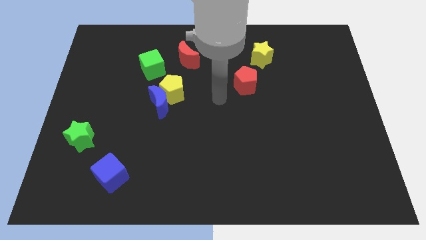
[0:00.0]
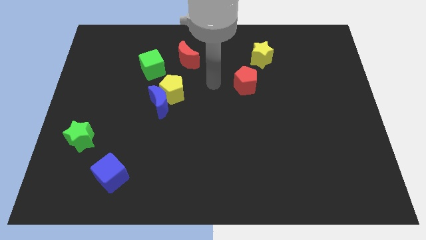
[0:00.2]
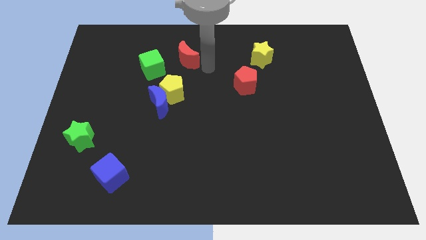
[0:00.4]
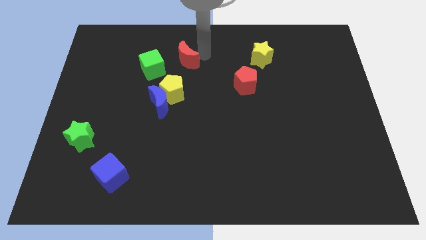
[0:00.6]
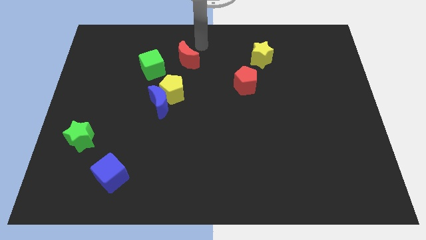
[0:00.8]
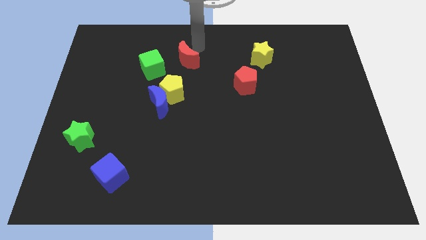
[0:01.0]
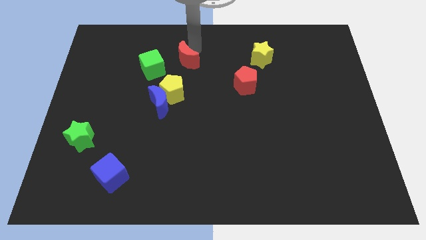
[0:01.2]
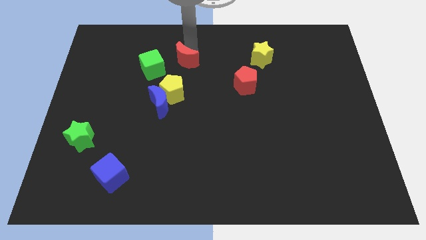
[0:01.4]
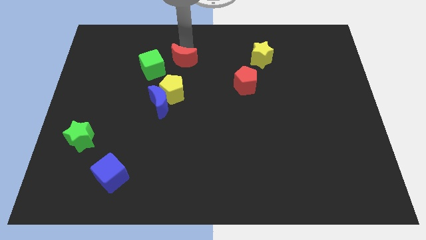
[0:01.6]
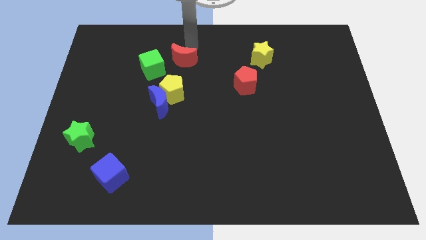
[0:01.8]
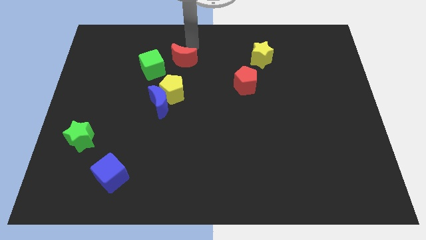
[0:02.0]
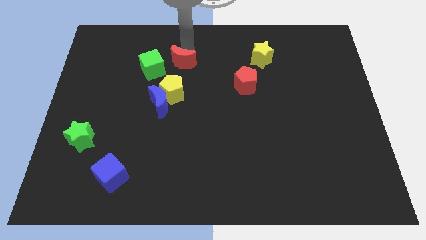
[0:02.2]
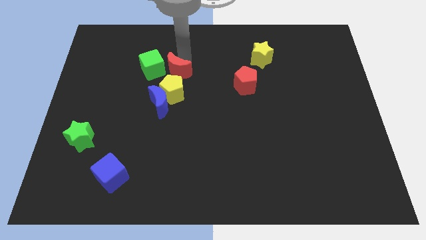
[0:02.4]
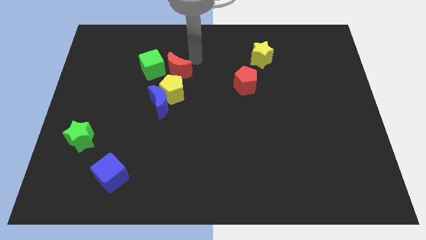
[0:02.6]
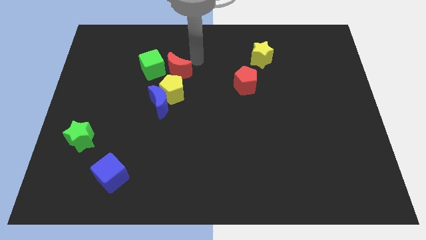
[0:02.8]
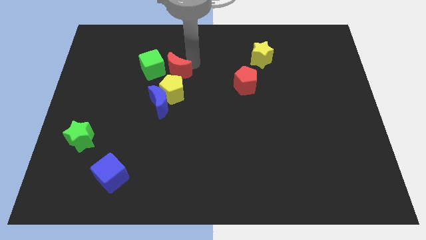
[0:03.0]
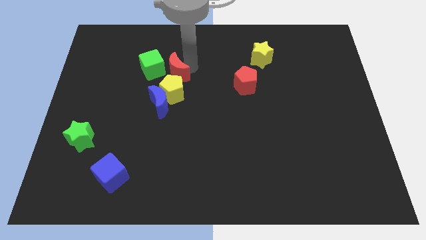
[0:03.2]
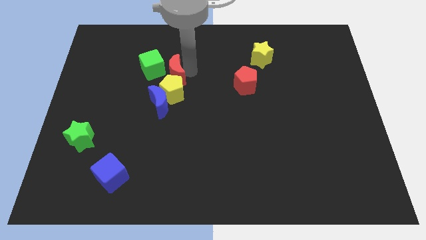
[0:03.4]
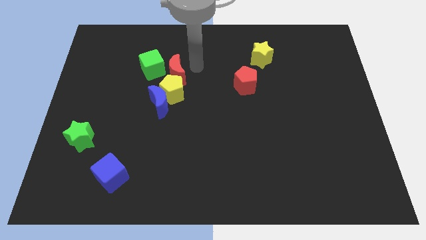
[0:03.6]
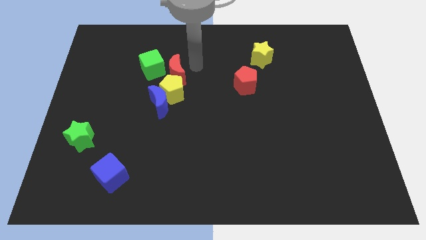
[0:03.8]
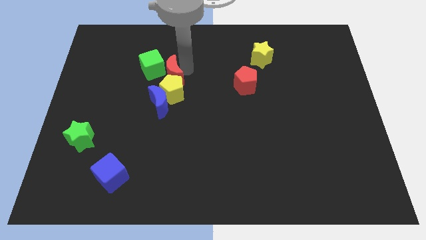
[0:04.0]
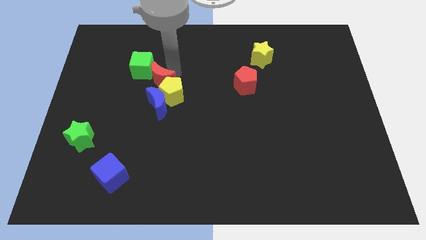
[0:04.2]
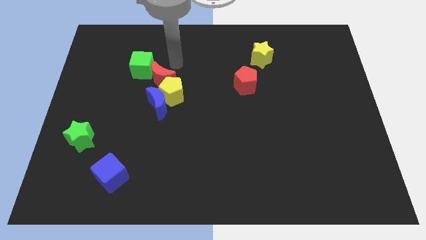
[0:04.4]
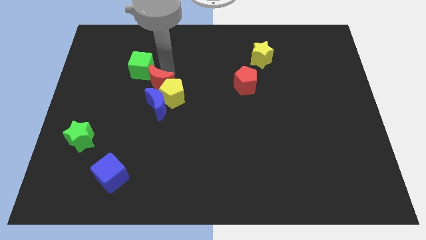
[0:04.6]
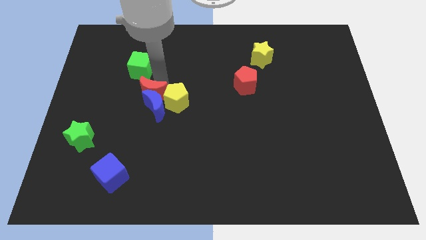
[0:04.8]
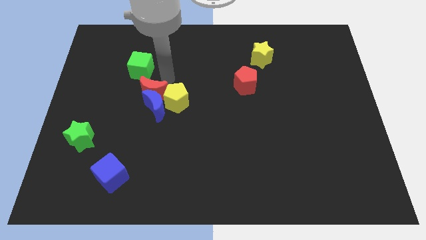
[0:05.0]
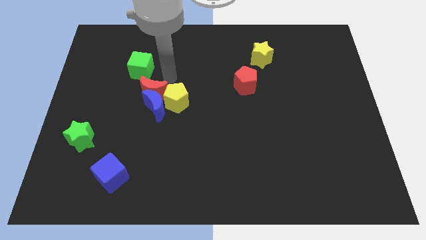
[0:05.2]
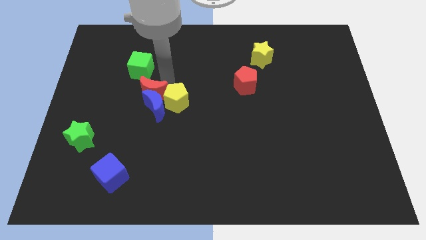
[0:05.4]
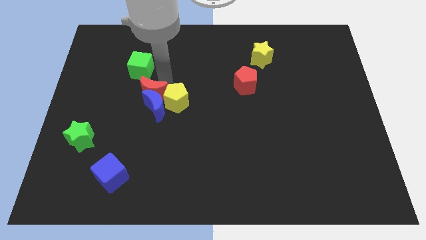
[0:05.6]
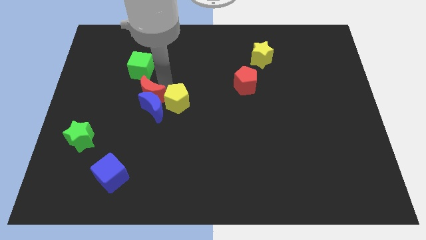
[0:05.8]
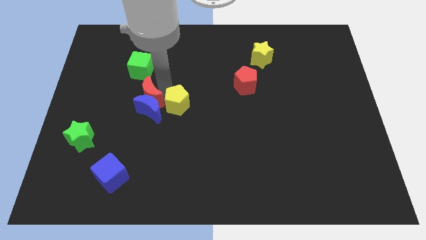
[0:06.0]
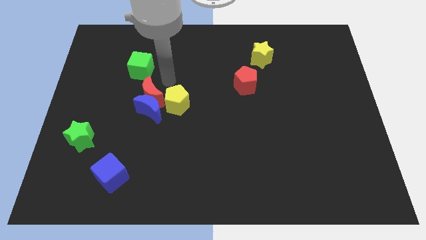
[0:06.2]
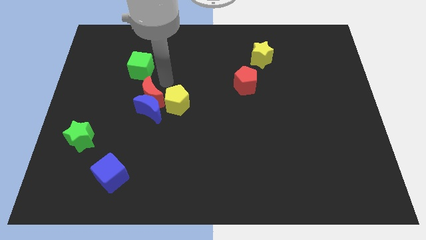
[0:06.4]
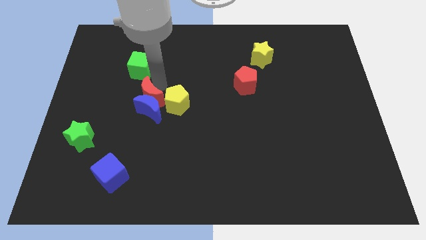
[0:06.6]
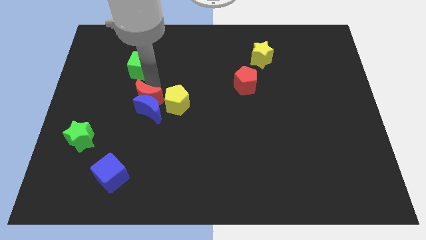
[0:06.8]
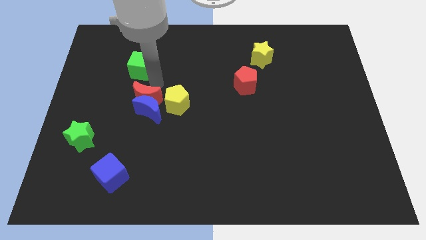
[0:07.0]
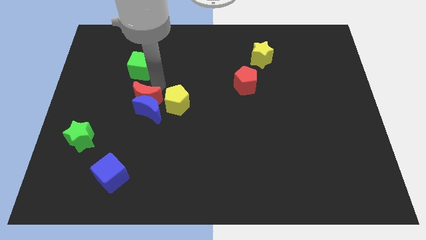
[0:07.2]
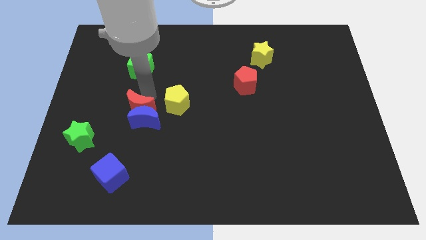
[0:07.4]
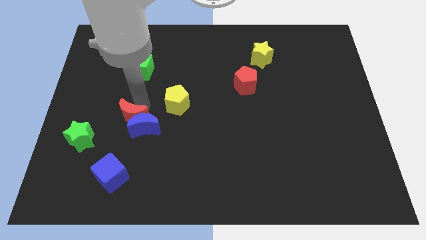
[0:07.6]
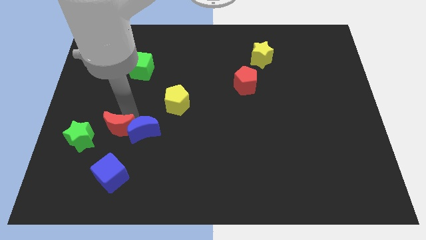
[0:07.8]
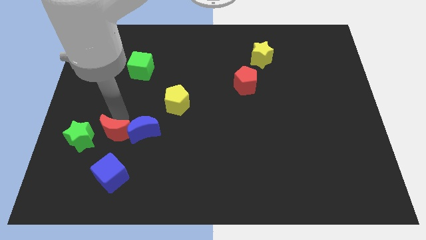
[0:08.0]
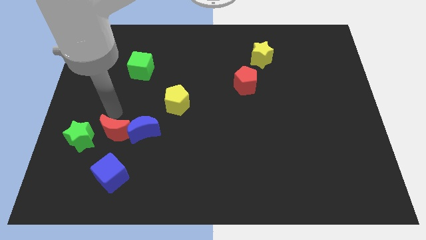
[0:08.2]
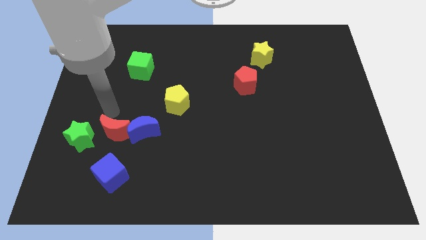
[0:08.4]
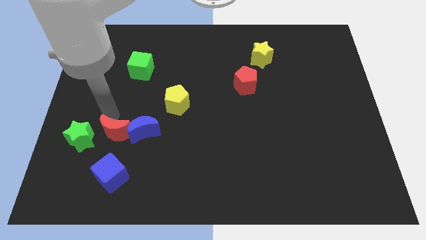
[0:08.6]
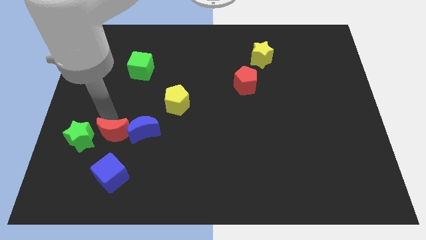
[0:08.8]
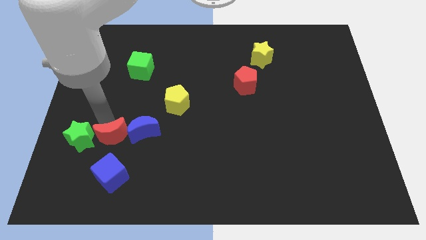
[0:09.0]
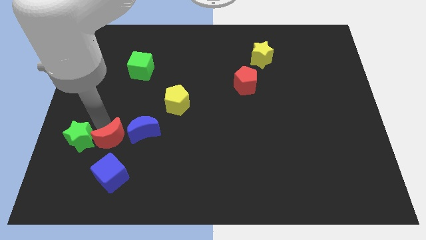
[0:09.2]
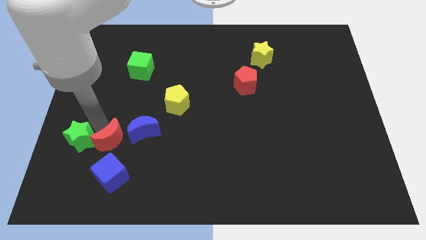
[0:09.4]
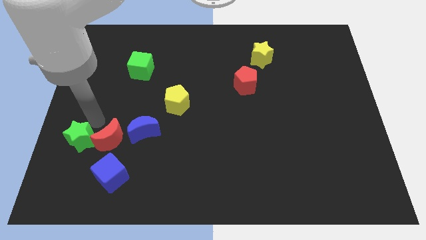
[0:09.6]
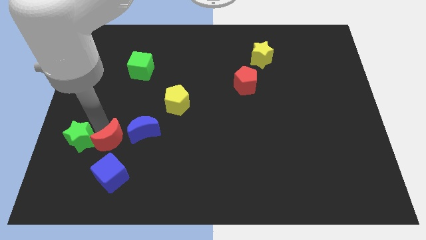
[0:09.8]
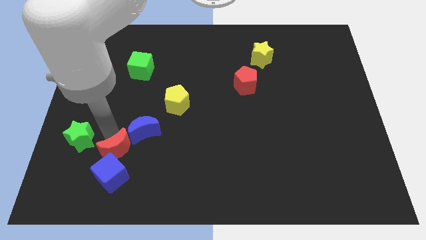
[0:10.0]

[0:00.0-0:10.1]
push the red moon next to the blue cube

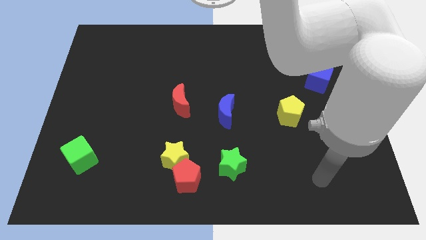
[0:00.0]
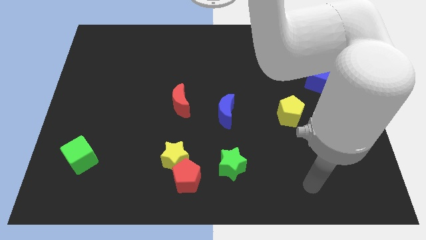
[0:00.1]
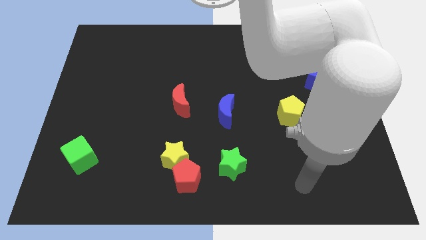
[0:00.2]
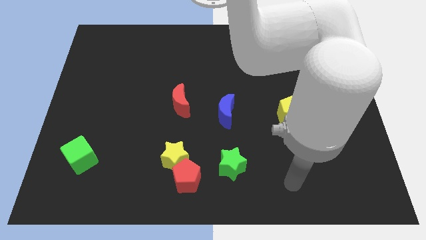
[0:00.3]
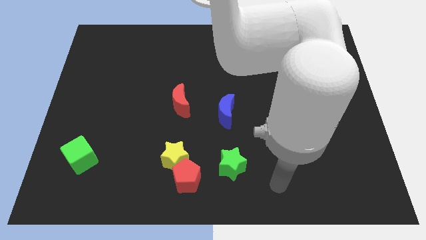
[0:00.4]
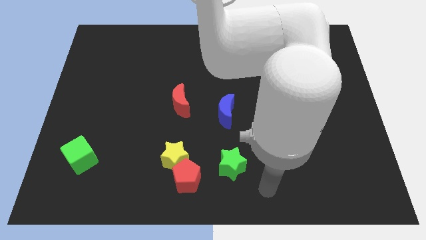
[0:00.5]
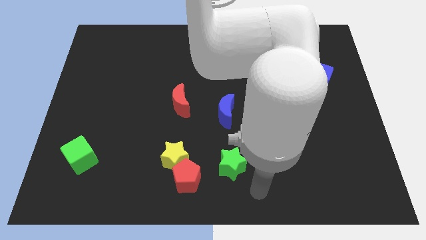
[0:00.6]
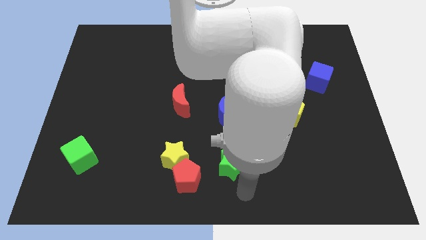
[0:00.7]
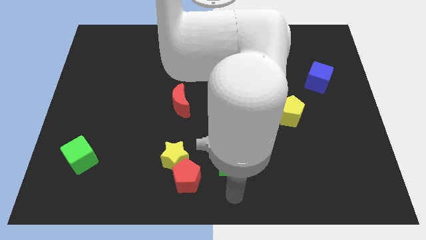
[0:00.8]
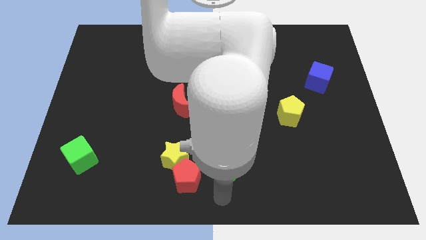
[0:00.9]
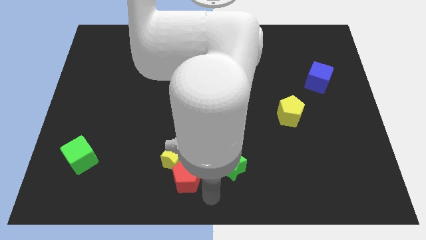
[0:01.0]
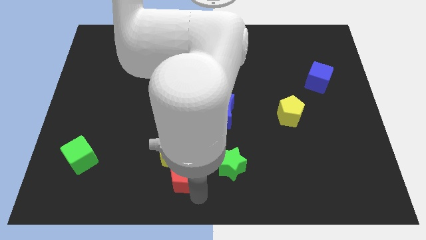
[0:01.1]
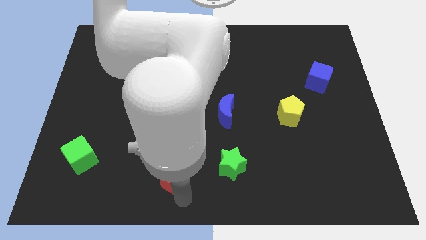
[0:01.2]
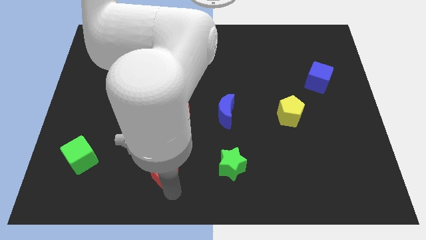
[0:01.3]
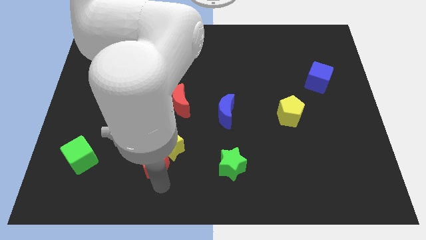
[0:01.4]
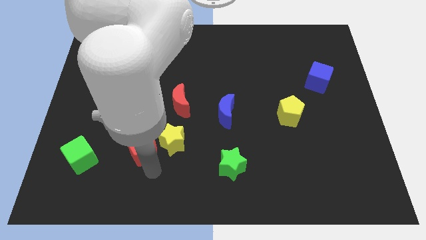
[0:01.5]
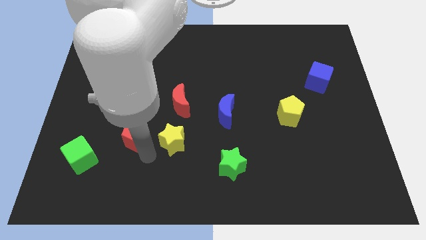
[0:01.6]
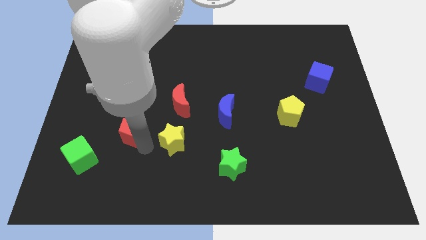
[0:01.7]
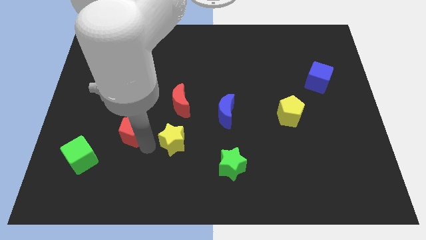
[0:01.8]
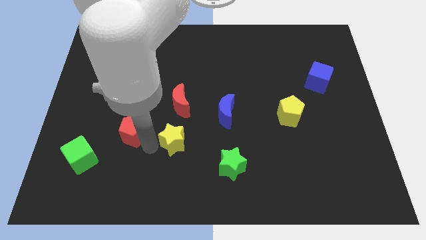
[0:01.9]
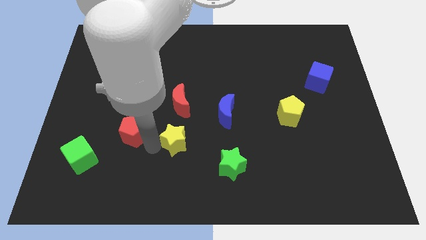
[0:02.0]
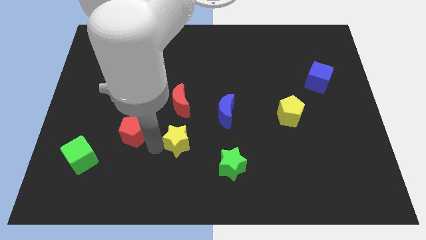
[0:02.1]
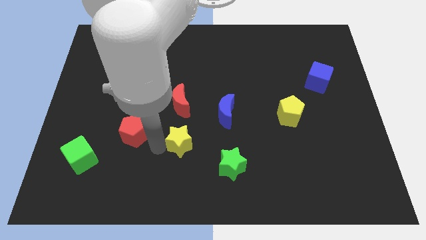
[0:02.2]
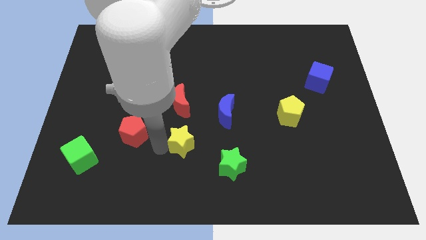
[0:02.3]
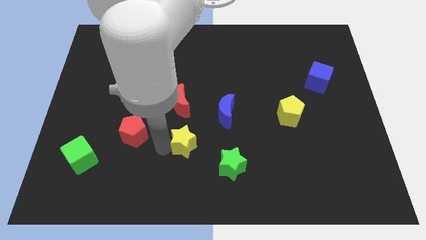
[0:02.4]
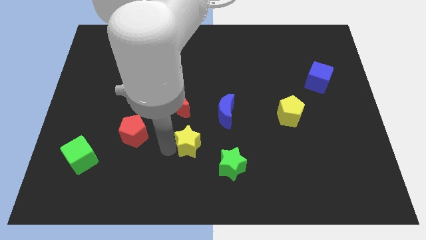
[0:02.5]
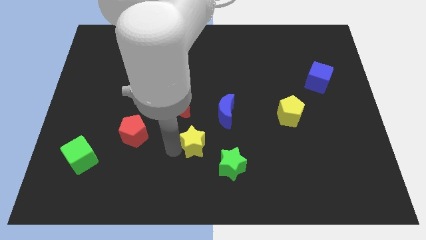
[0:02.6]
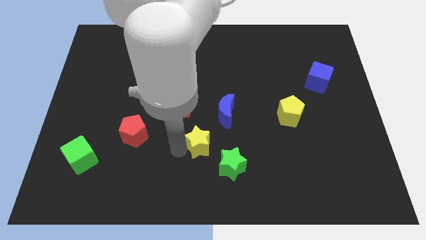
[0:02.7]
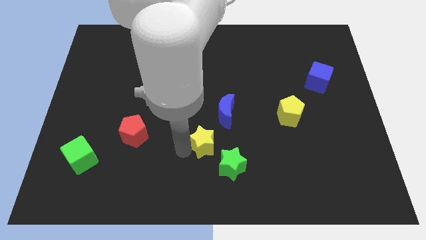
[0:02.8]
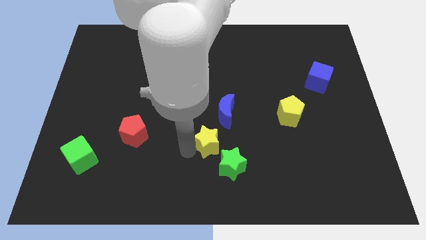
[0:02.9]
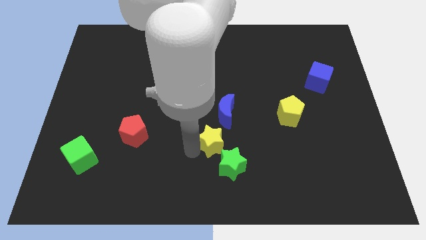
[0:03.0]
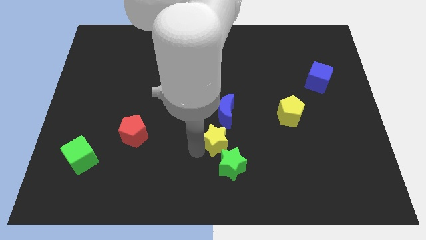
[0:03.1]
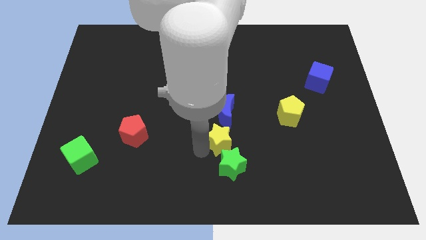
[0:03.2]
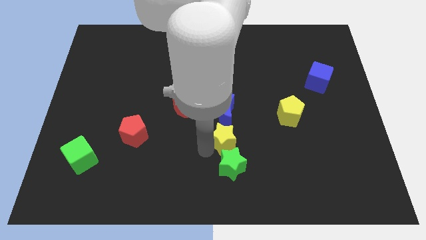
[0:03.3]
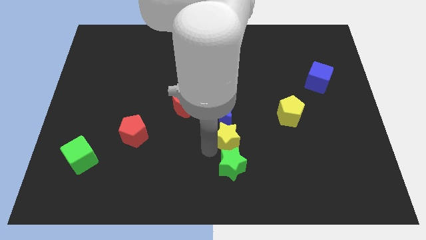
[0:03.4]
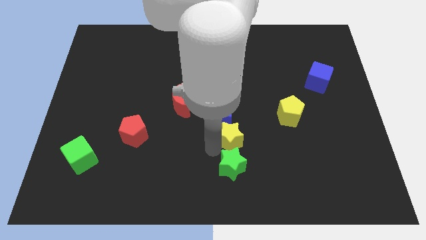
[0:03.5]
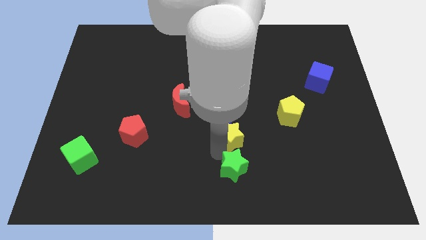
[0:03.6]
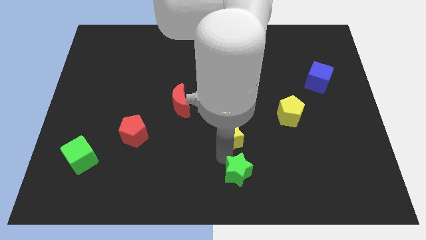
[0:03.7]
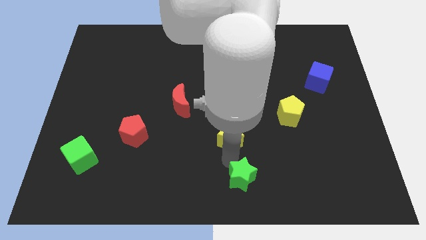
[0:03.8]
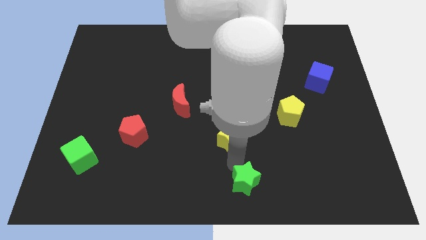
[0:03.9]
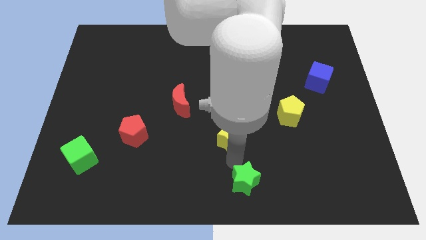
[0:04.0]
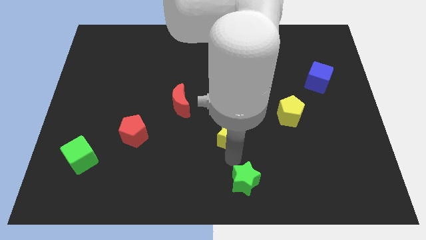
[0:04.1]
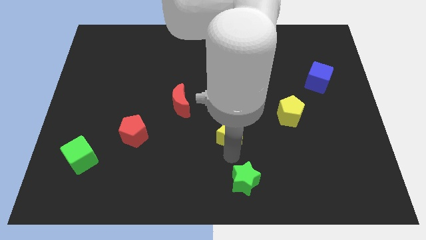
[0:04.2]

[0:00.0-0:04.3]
slide the yellow star close to the blue moon
